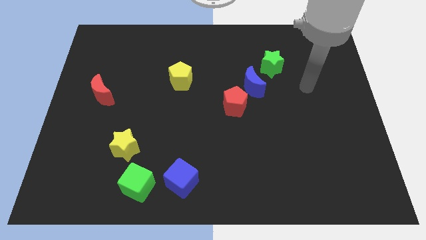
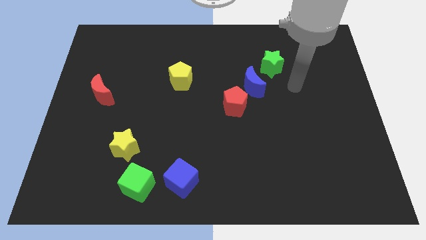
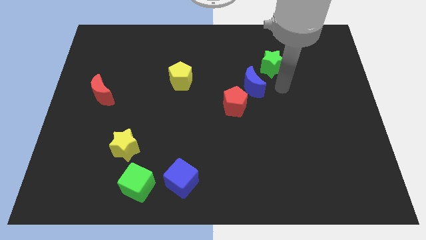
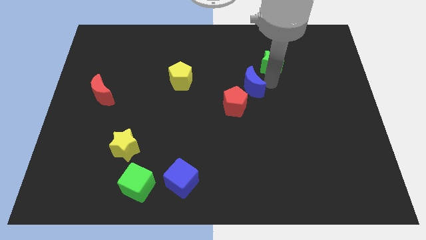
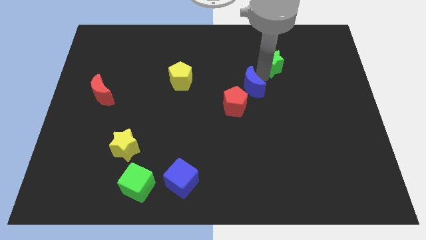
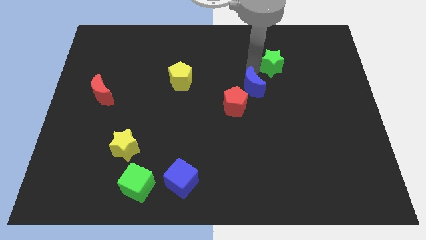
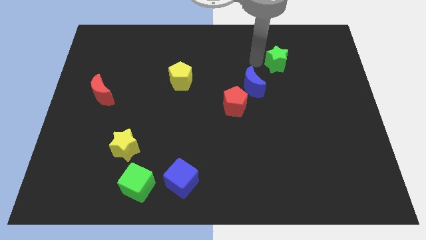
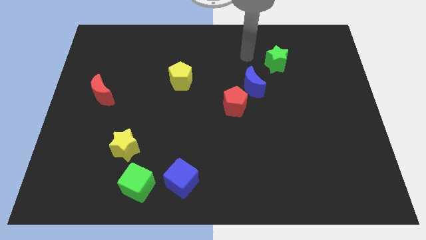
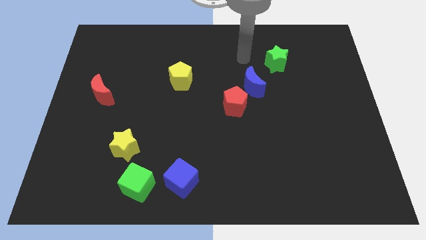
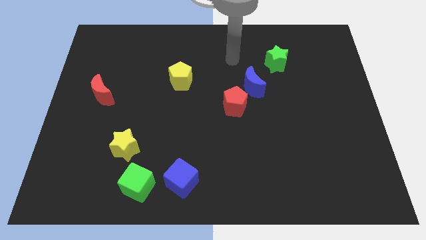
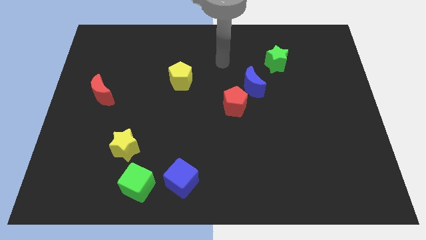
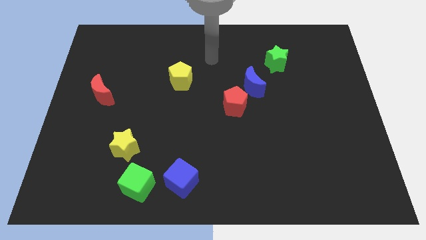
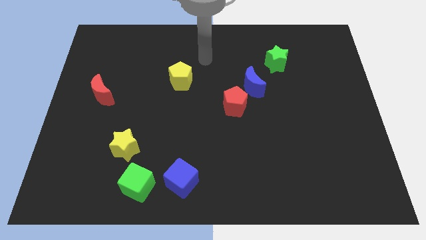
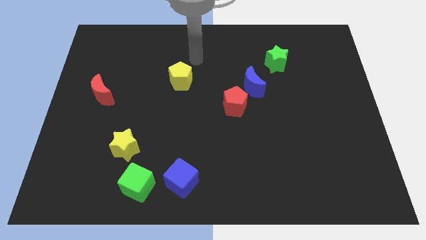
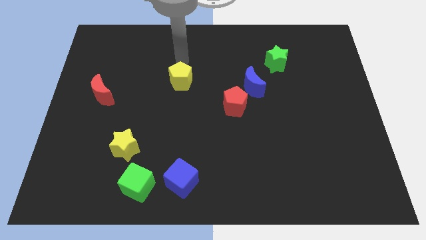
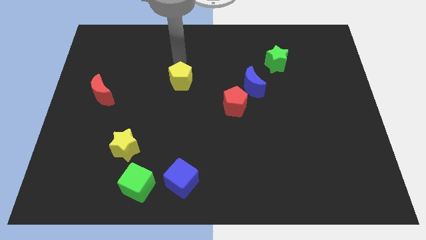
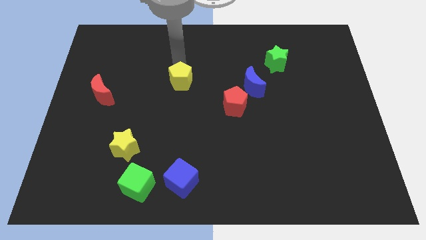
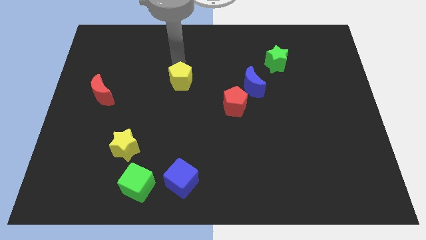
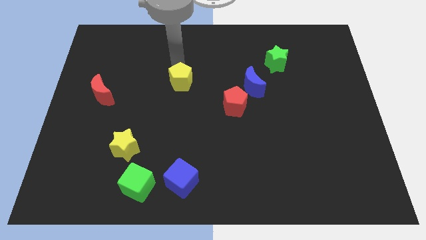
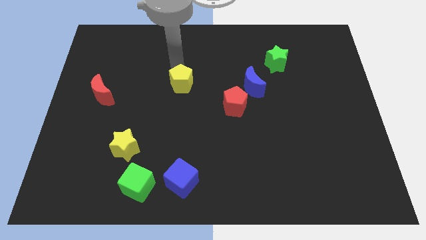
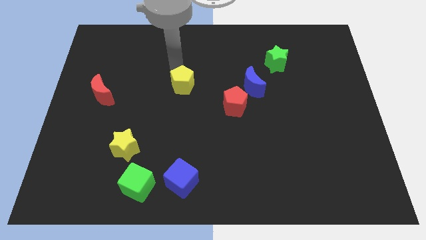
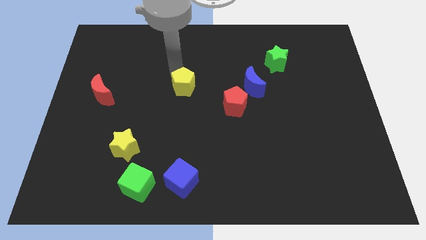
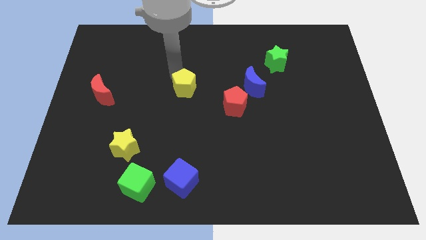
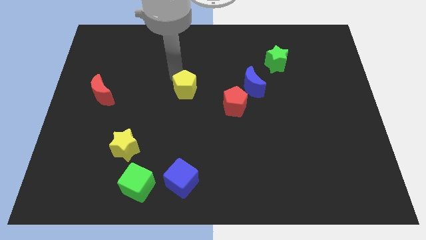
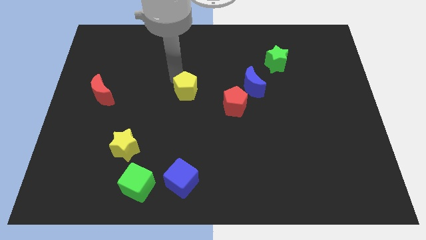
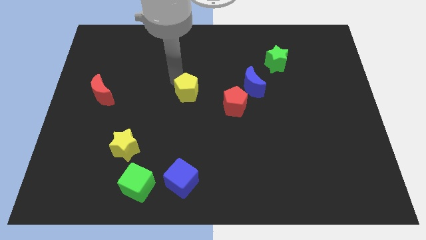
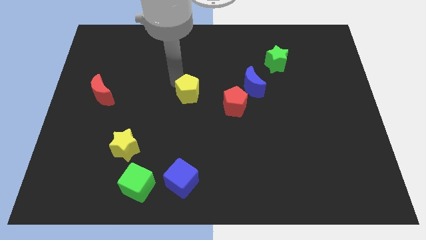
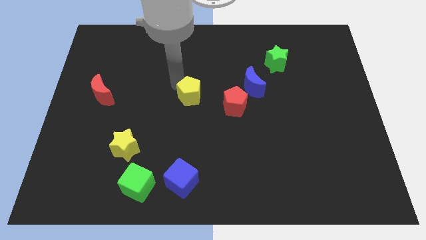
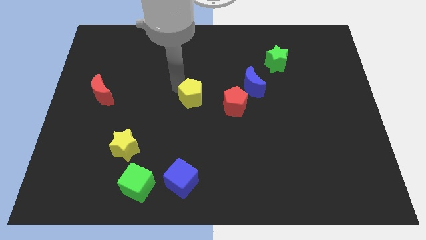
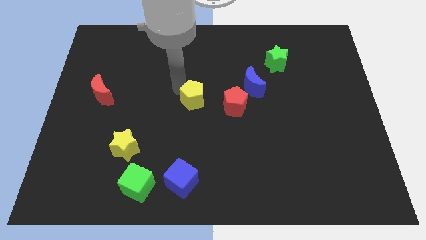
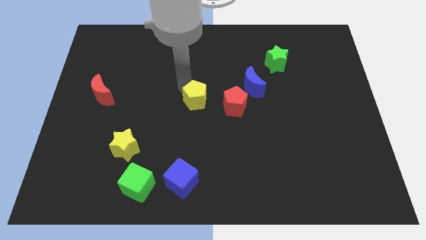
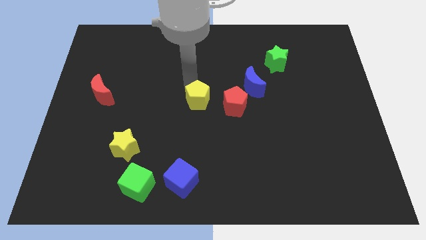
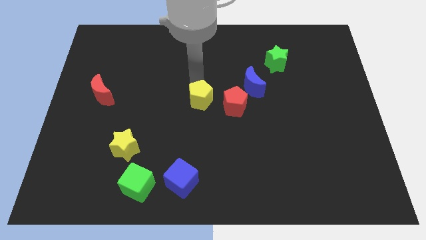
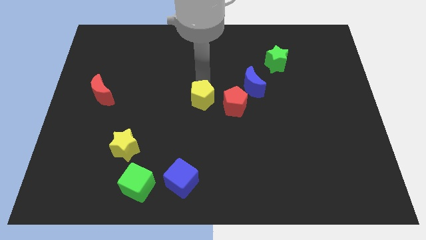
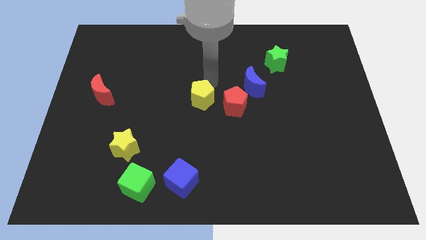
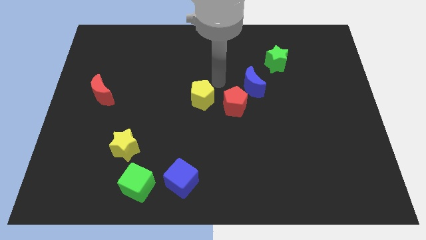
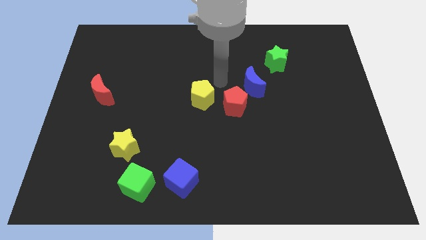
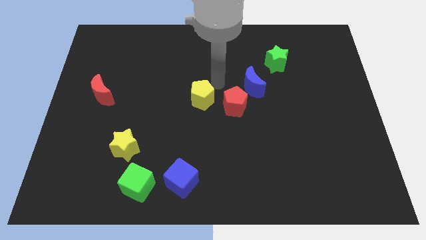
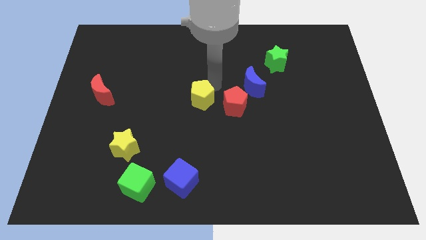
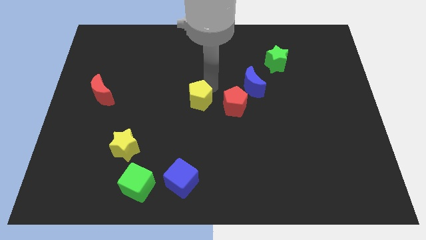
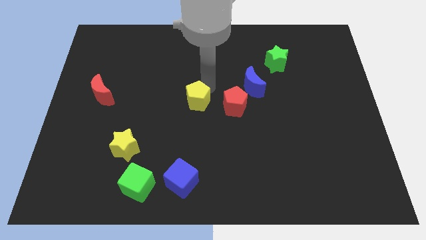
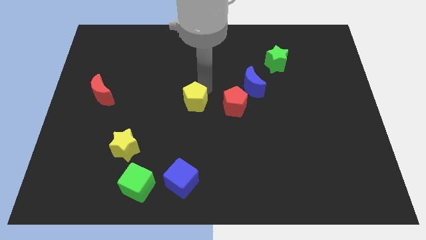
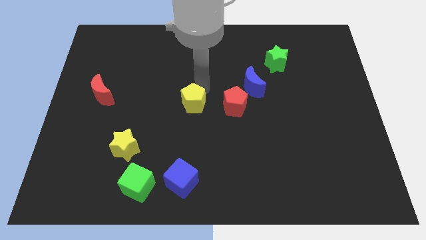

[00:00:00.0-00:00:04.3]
move the yellow pentagon somewhat down

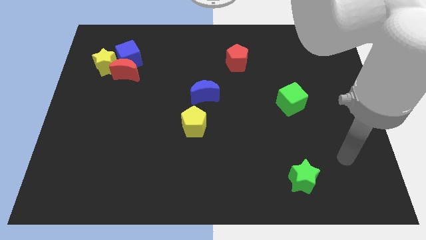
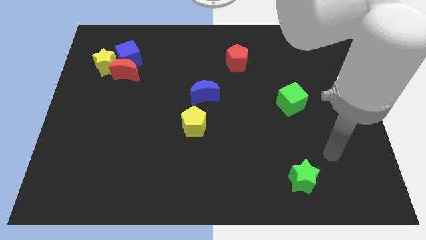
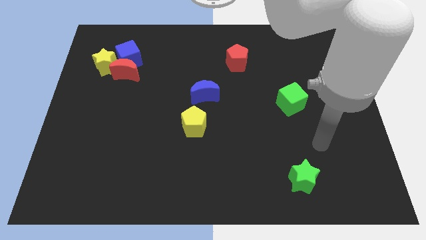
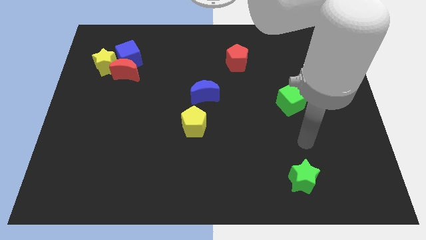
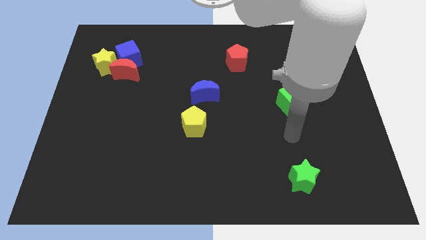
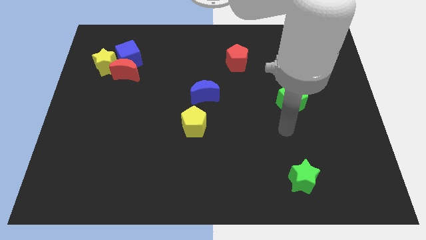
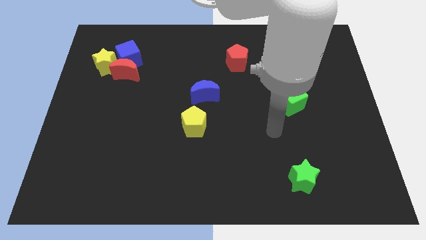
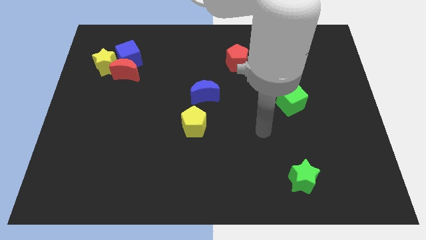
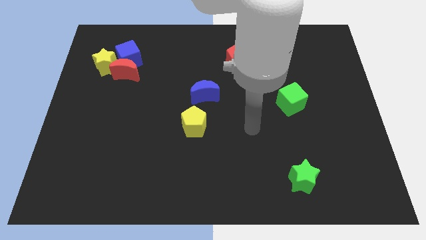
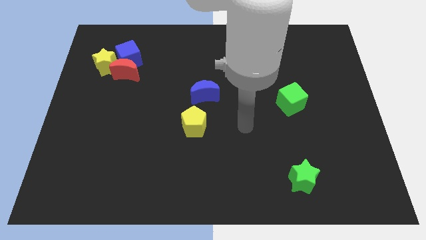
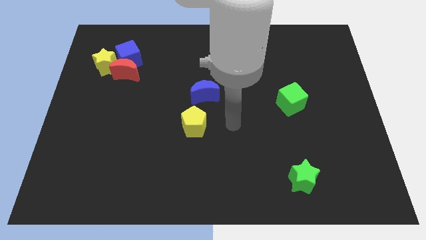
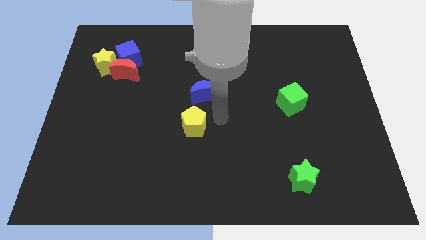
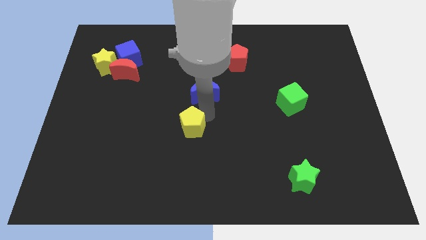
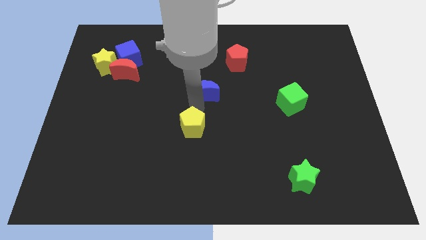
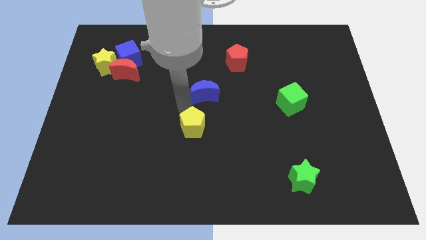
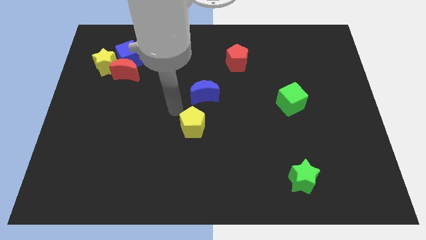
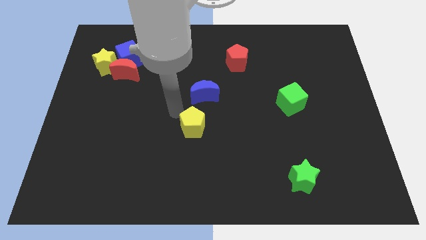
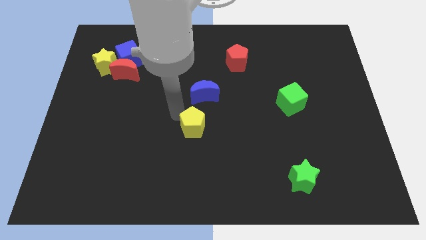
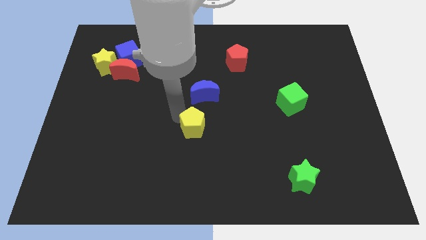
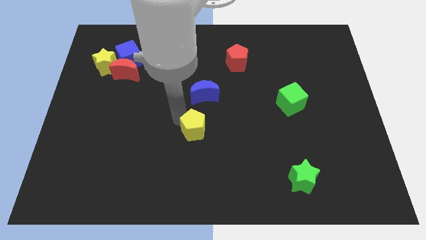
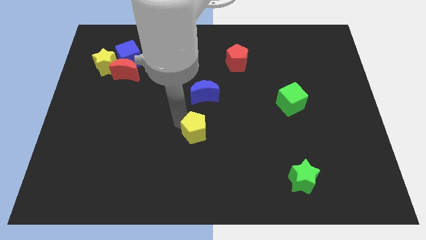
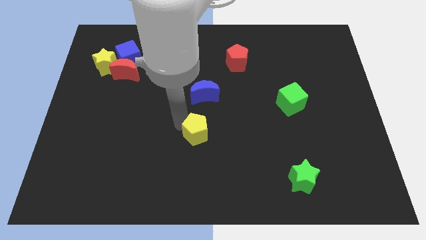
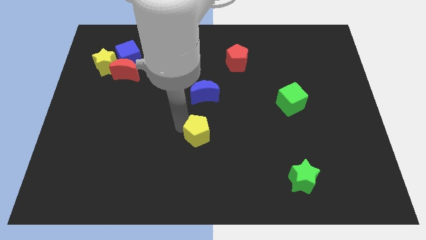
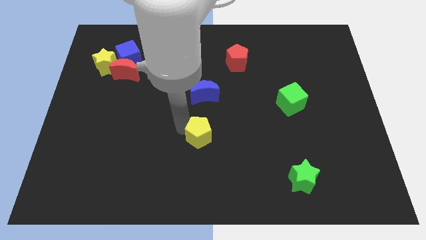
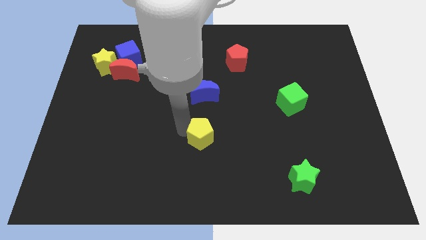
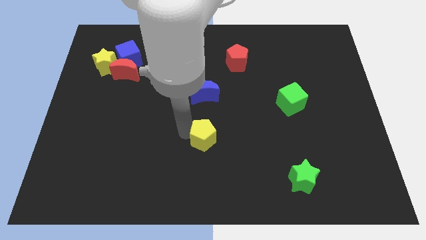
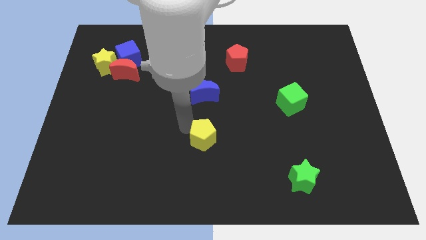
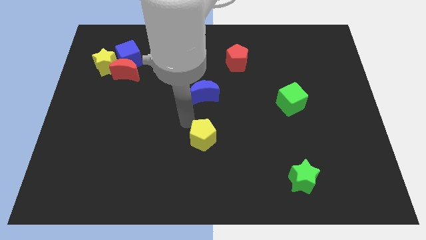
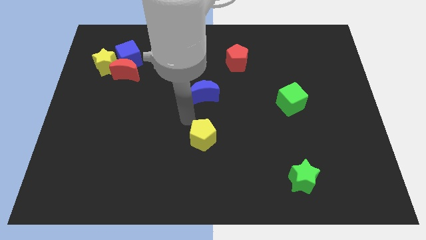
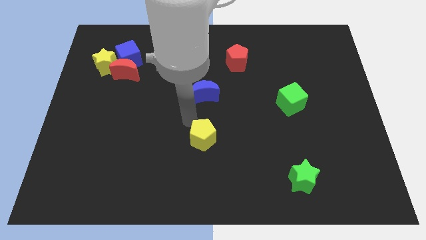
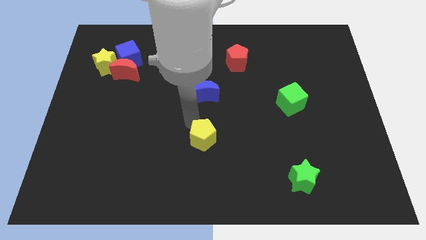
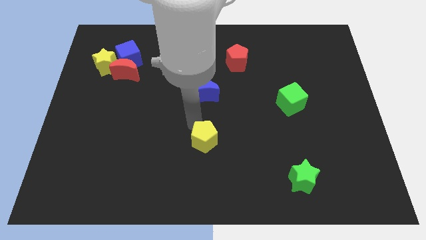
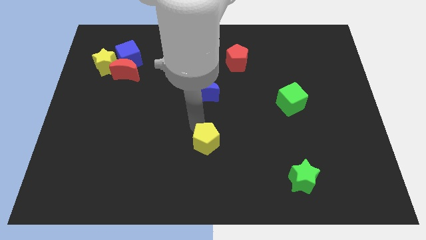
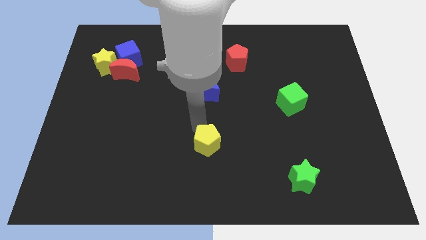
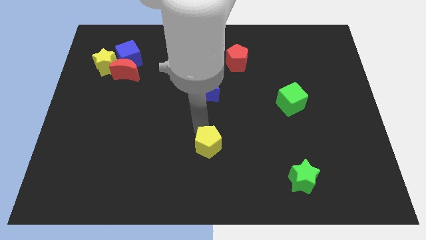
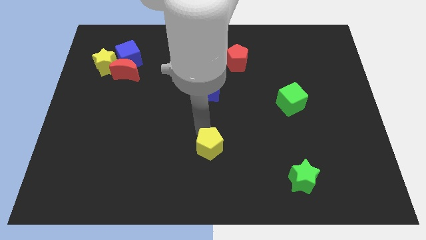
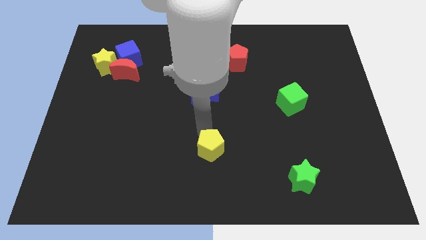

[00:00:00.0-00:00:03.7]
slightly slide the yellow pentagon downwards and then to the right
